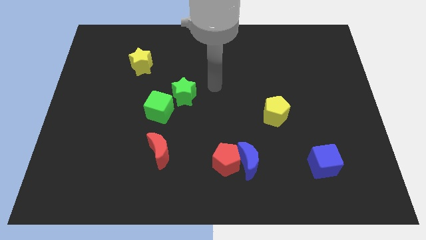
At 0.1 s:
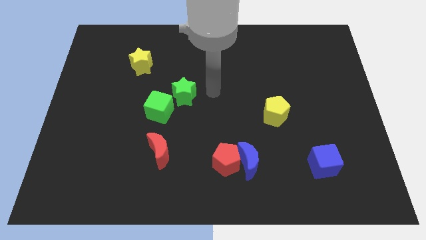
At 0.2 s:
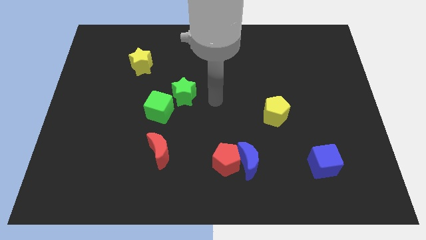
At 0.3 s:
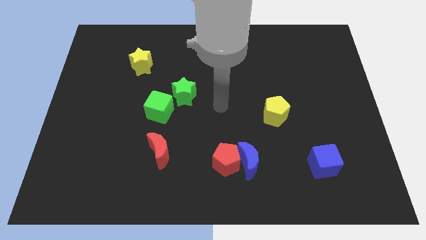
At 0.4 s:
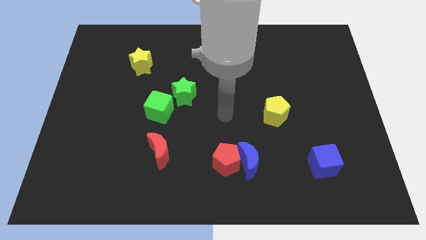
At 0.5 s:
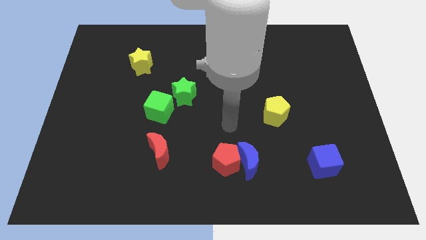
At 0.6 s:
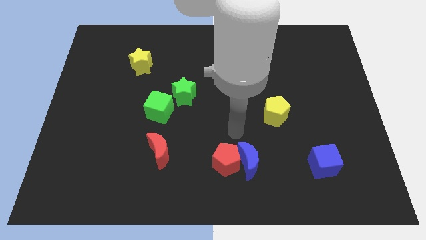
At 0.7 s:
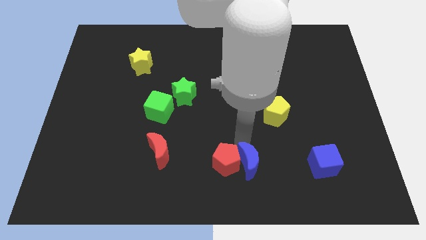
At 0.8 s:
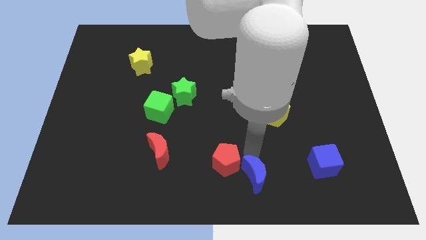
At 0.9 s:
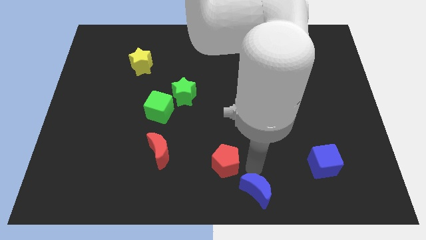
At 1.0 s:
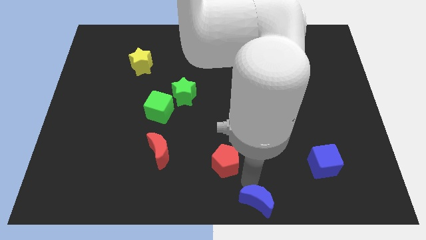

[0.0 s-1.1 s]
separate the red pentagon from the blue moon

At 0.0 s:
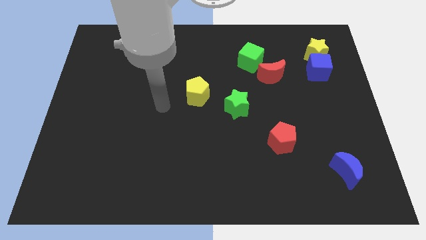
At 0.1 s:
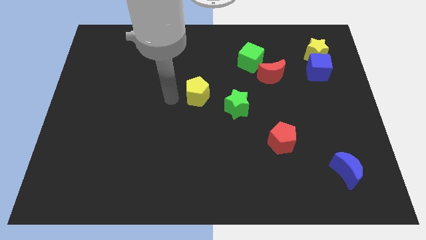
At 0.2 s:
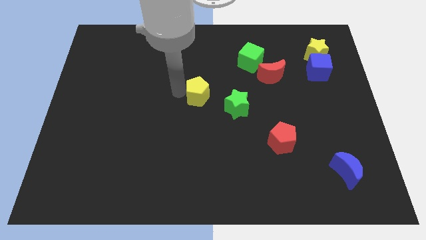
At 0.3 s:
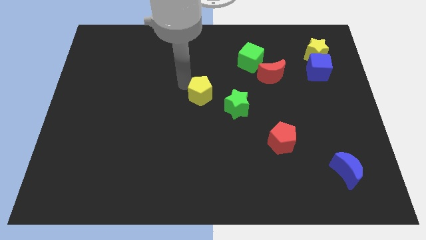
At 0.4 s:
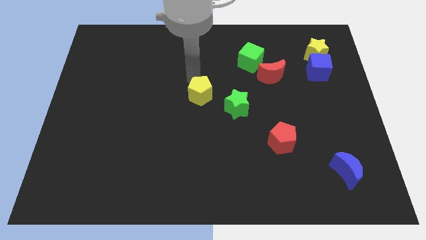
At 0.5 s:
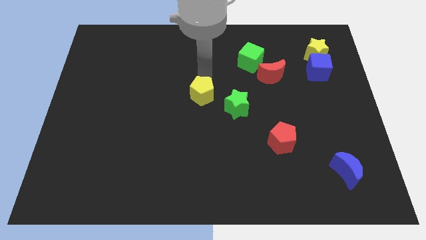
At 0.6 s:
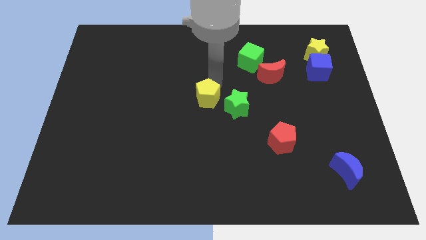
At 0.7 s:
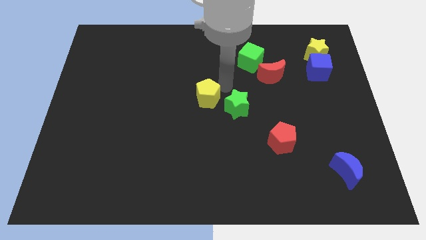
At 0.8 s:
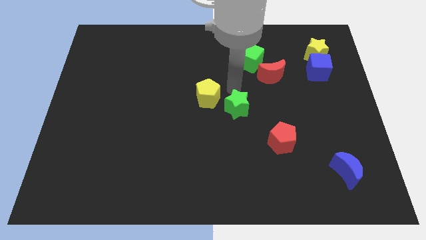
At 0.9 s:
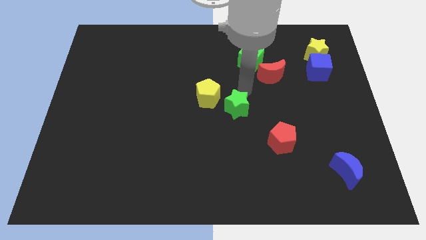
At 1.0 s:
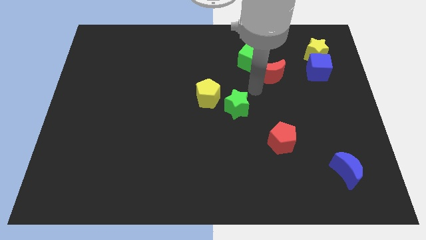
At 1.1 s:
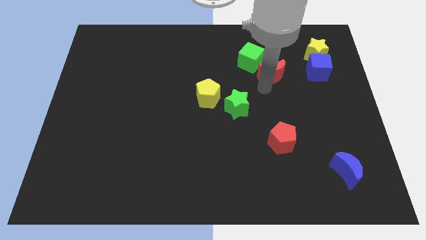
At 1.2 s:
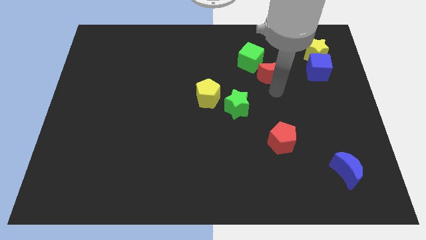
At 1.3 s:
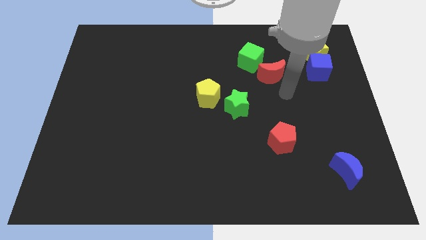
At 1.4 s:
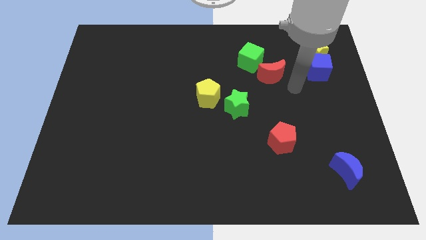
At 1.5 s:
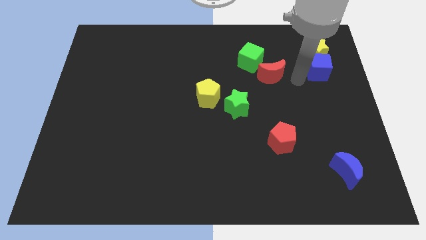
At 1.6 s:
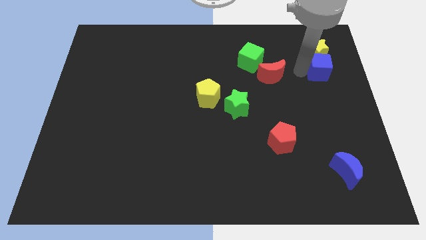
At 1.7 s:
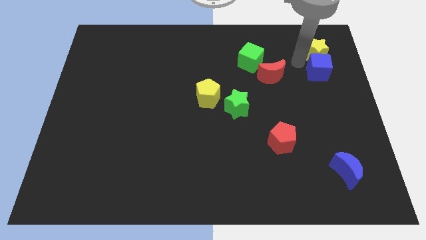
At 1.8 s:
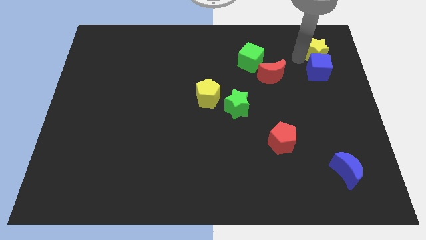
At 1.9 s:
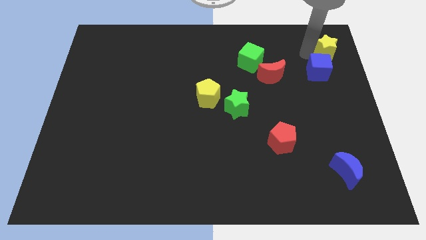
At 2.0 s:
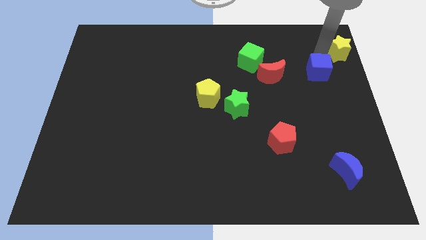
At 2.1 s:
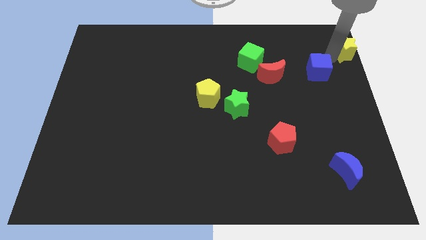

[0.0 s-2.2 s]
move the blue cube away from the yellow star

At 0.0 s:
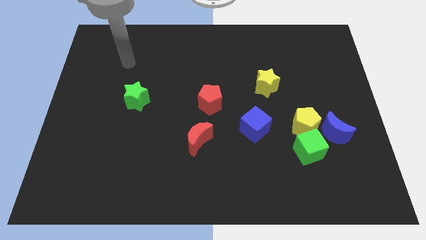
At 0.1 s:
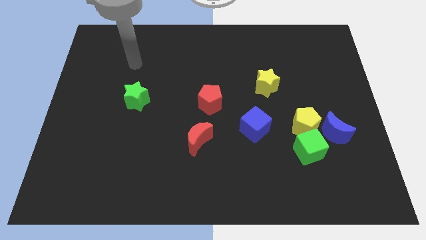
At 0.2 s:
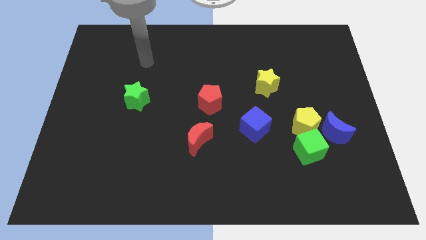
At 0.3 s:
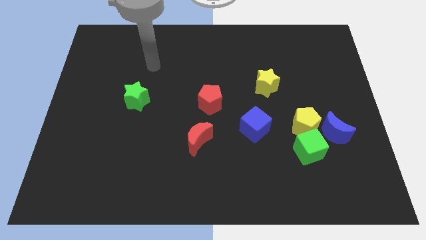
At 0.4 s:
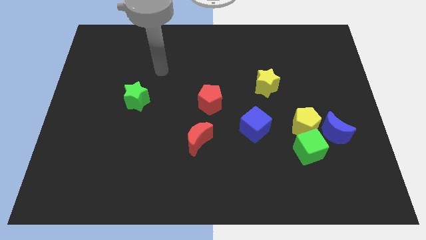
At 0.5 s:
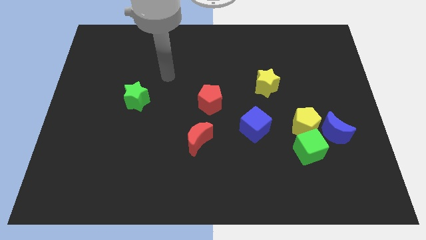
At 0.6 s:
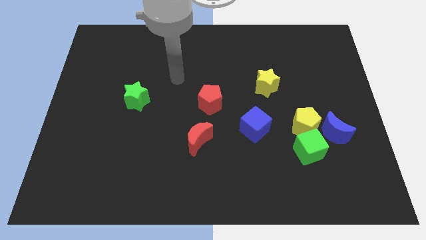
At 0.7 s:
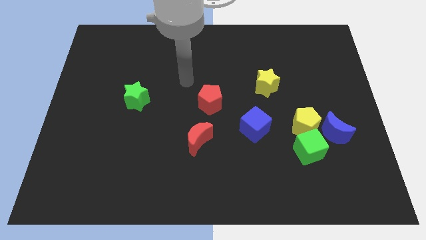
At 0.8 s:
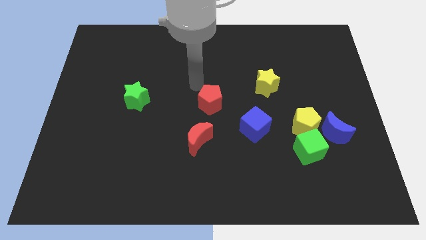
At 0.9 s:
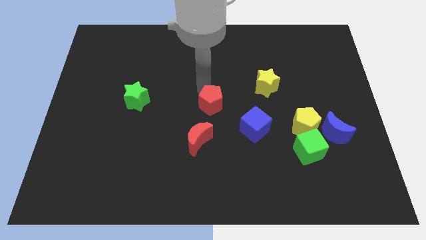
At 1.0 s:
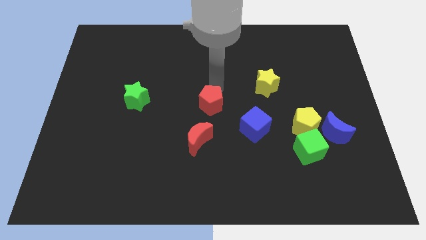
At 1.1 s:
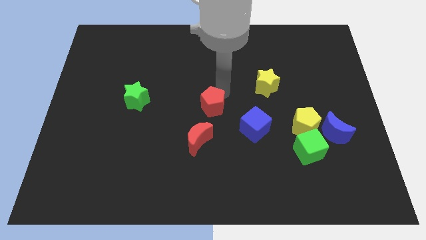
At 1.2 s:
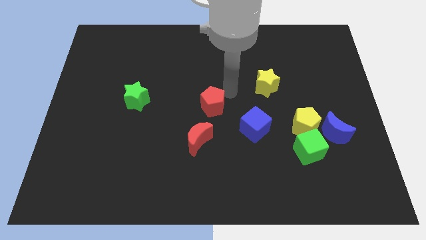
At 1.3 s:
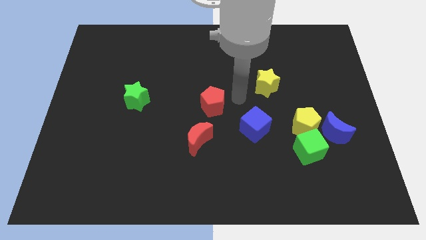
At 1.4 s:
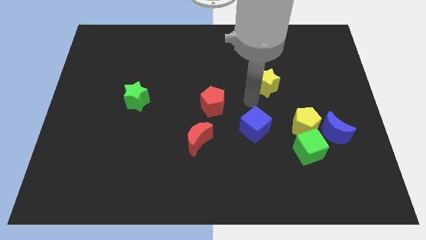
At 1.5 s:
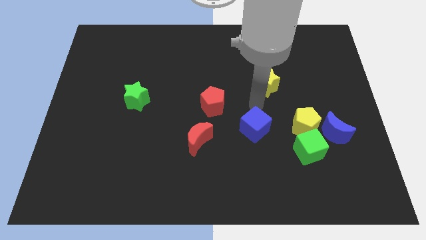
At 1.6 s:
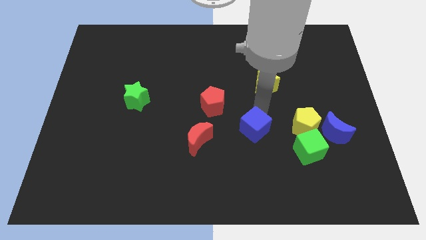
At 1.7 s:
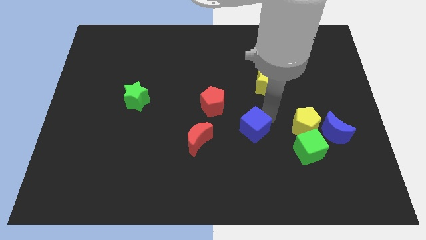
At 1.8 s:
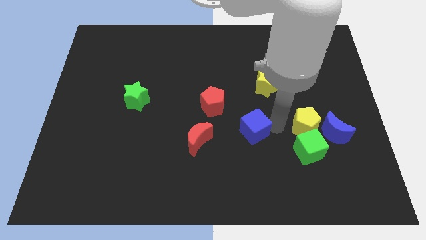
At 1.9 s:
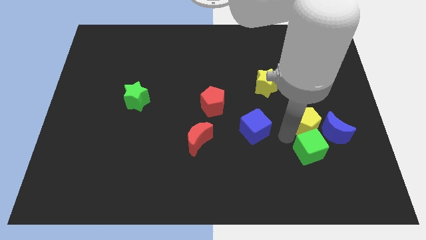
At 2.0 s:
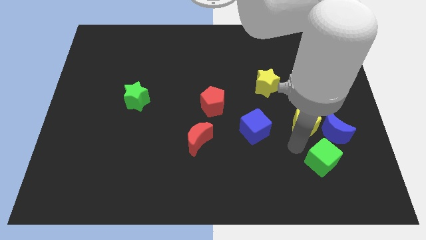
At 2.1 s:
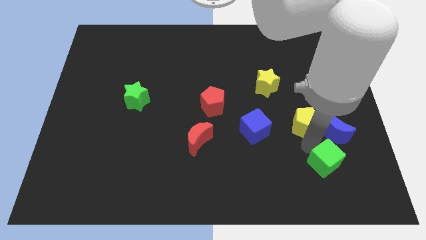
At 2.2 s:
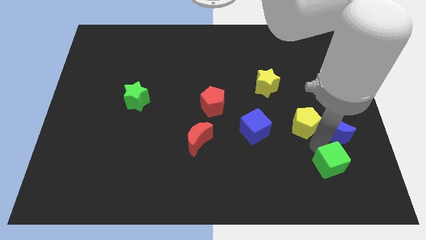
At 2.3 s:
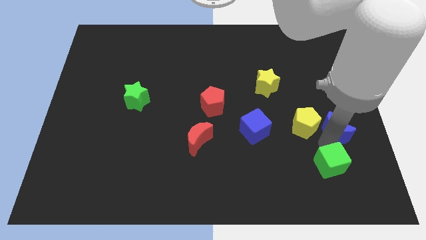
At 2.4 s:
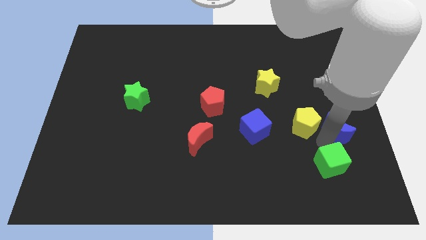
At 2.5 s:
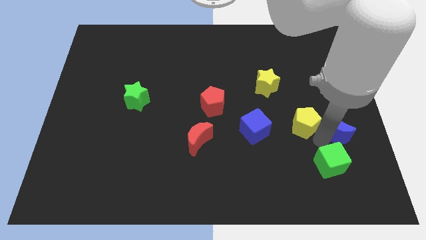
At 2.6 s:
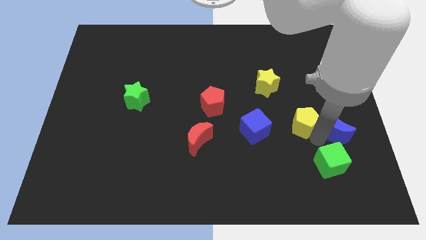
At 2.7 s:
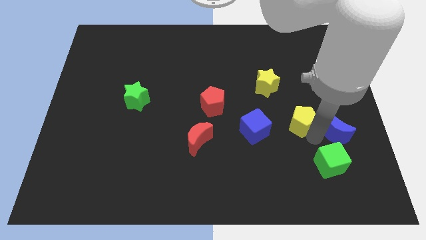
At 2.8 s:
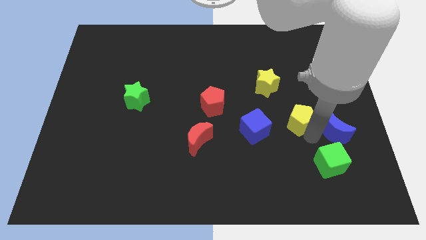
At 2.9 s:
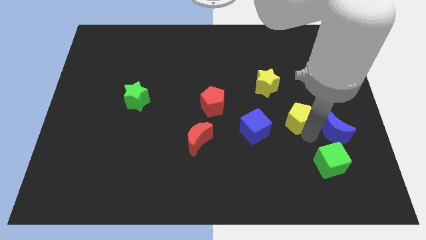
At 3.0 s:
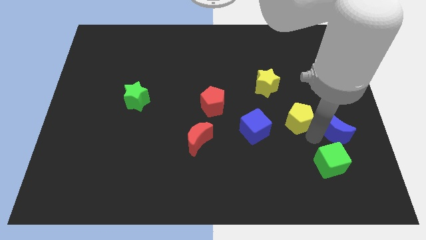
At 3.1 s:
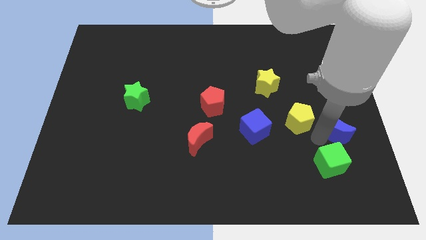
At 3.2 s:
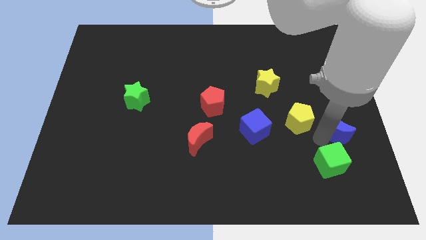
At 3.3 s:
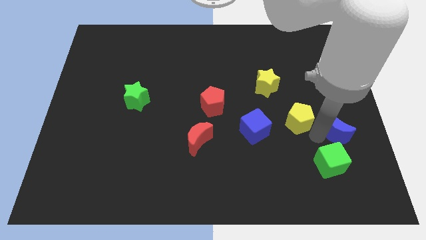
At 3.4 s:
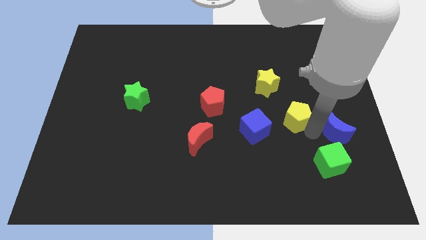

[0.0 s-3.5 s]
pull the yellow pentagon apart from the green cube and blue moon

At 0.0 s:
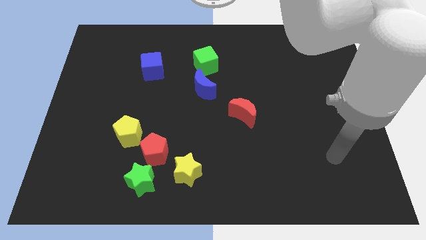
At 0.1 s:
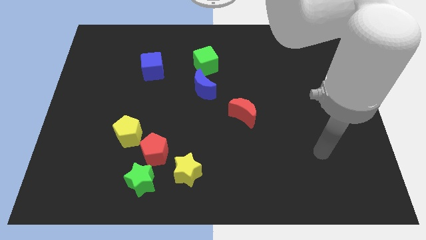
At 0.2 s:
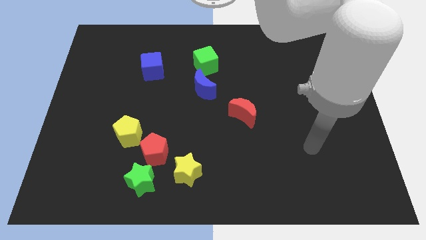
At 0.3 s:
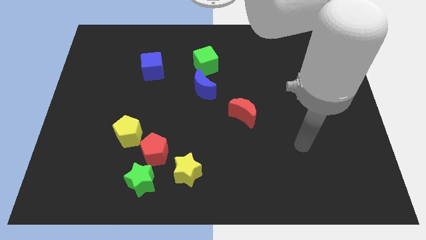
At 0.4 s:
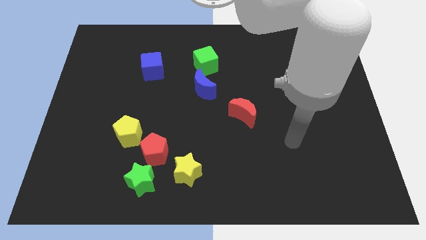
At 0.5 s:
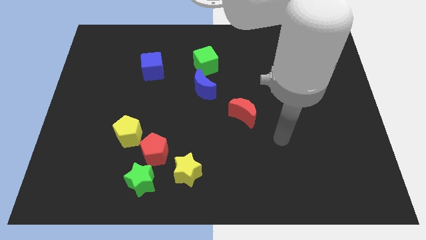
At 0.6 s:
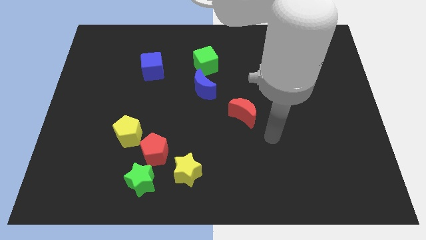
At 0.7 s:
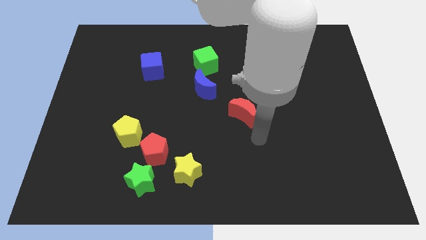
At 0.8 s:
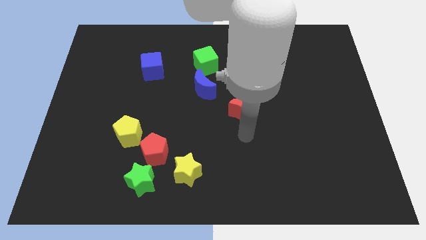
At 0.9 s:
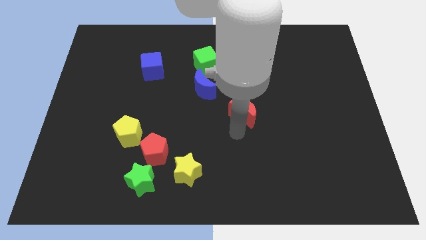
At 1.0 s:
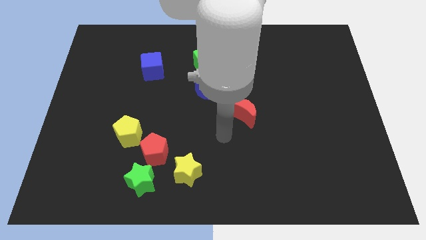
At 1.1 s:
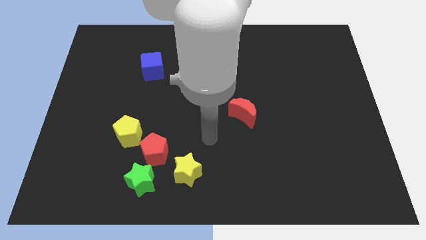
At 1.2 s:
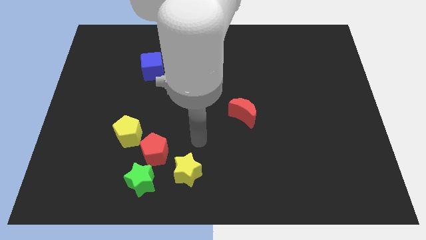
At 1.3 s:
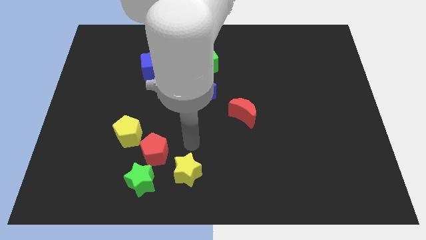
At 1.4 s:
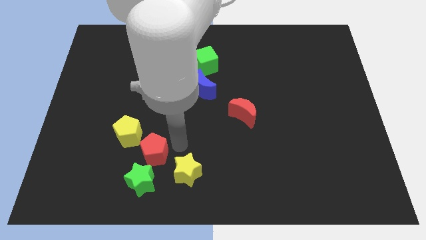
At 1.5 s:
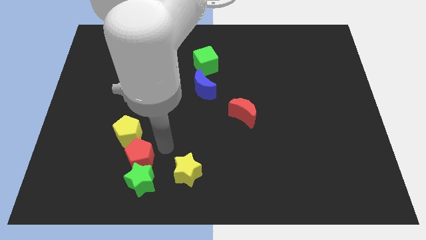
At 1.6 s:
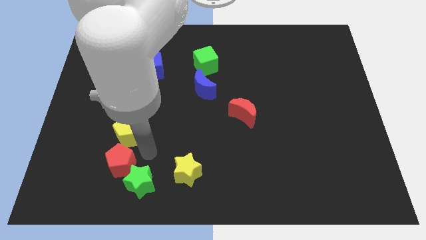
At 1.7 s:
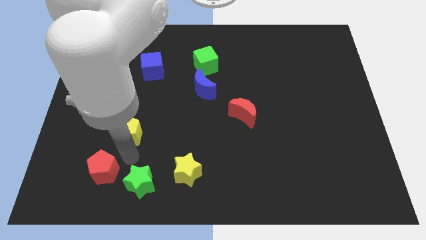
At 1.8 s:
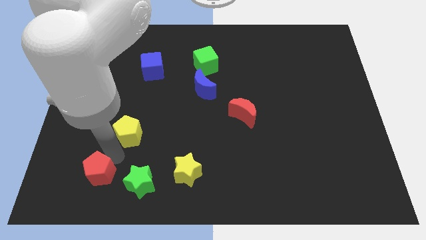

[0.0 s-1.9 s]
separate the yellow pentagon from the red pentagon

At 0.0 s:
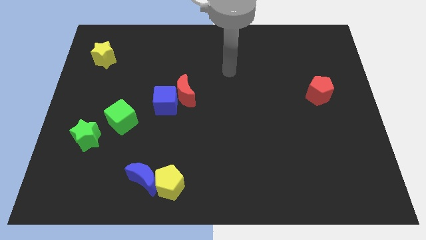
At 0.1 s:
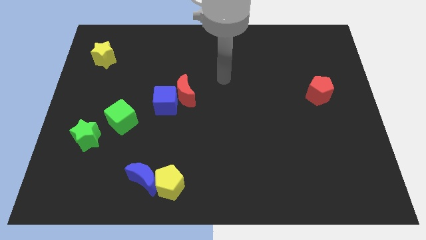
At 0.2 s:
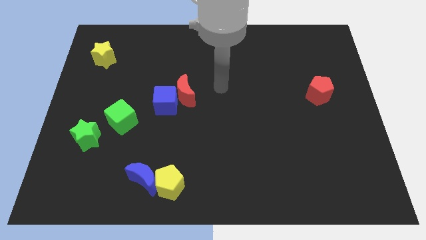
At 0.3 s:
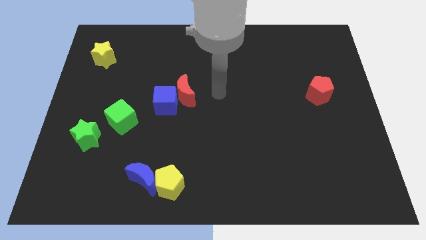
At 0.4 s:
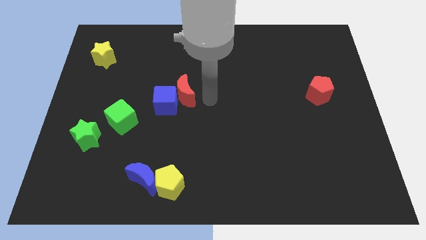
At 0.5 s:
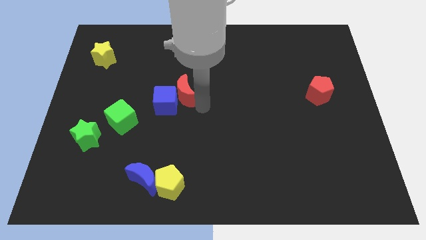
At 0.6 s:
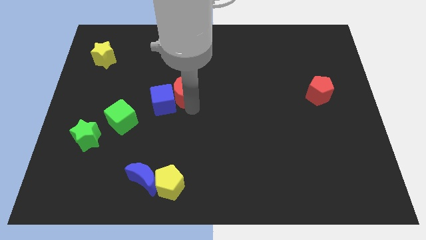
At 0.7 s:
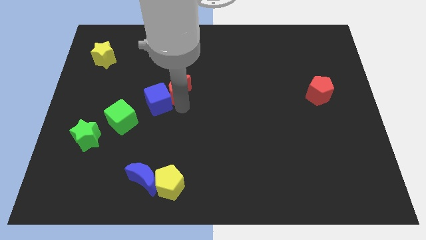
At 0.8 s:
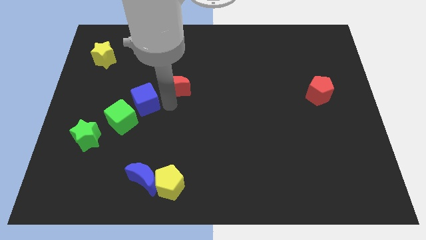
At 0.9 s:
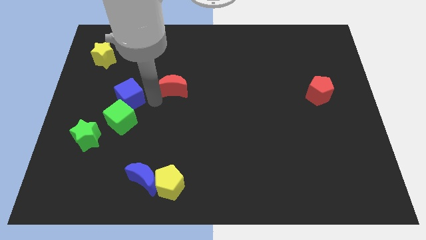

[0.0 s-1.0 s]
move the red moon away from the blue cube
